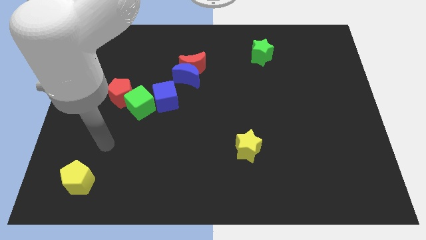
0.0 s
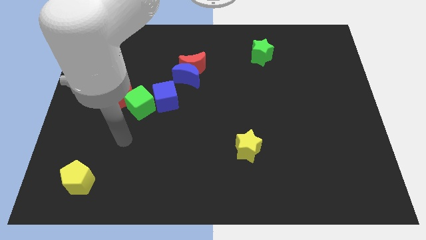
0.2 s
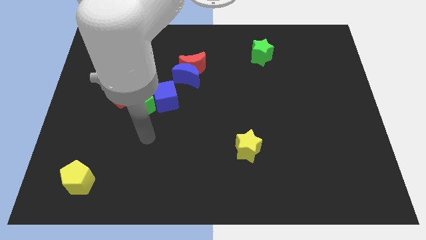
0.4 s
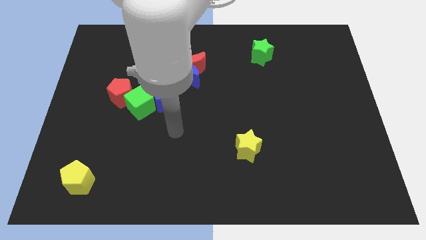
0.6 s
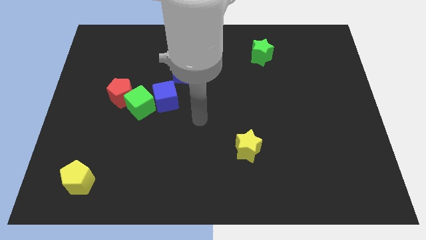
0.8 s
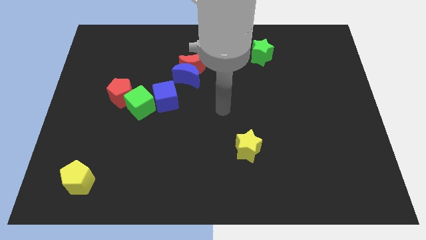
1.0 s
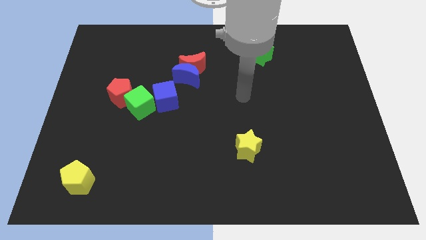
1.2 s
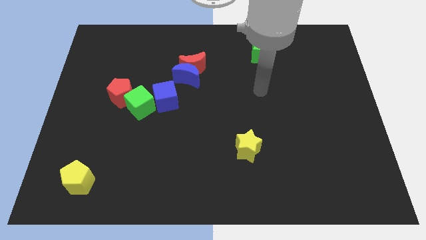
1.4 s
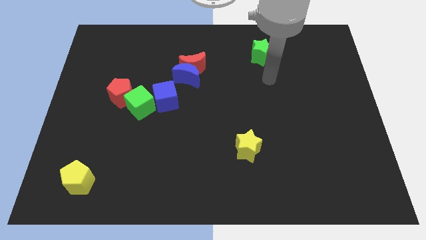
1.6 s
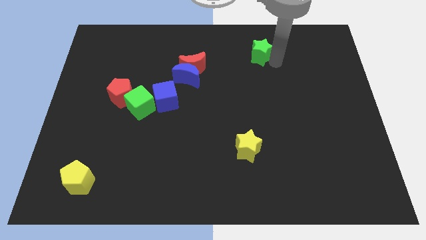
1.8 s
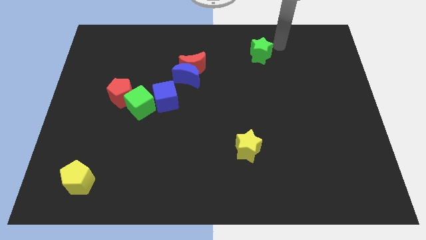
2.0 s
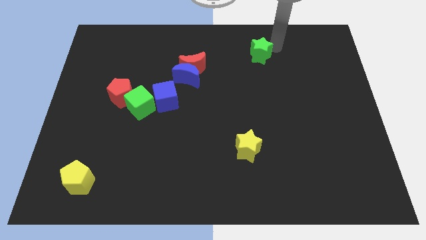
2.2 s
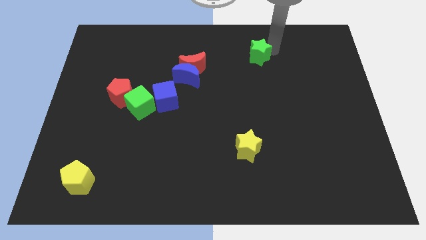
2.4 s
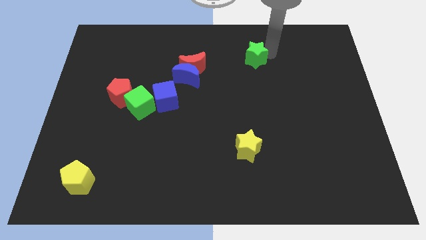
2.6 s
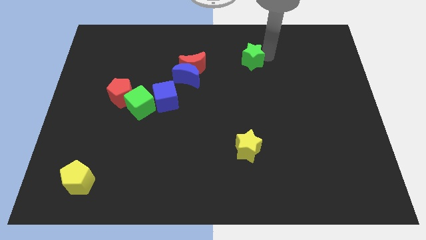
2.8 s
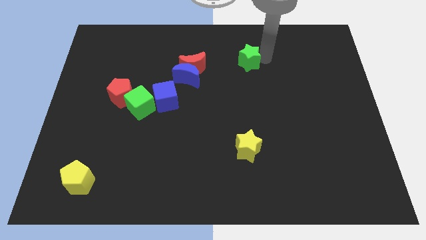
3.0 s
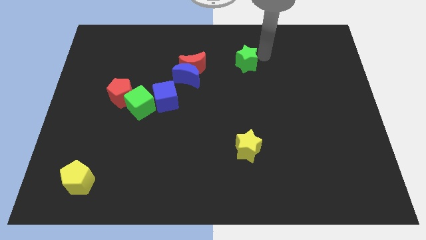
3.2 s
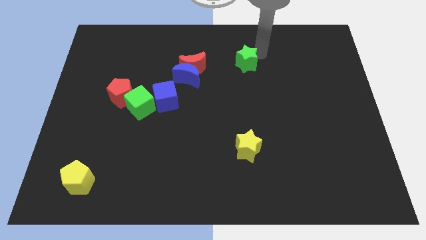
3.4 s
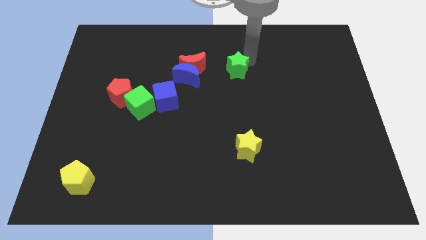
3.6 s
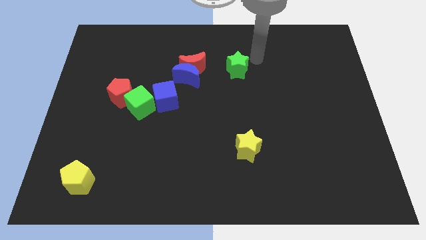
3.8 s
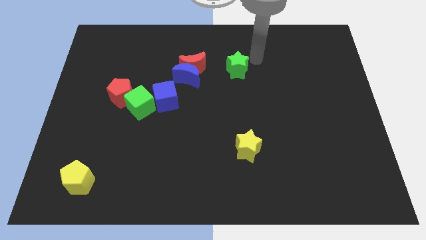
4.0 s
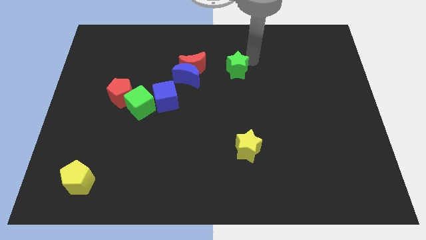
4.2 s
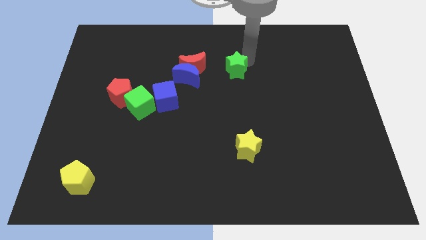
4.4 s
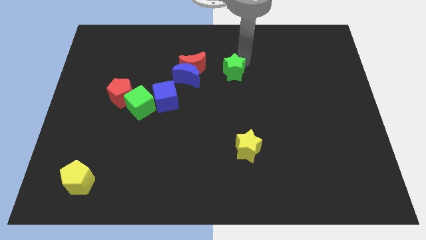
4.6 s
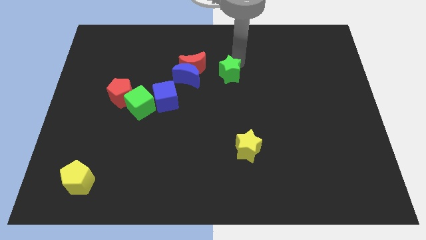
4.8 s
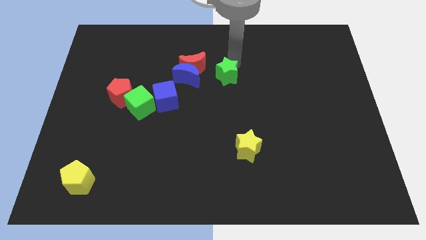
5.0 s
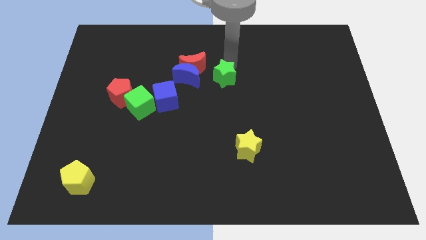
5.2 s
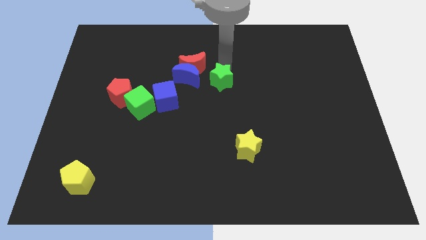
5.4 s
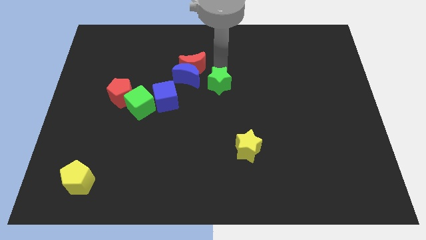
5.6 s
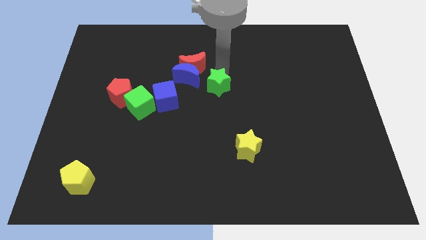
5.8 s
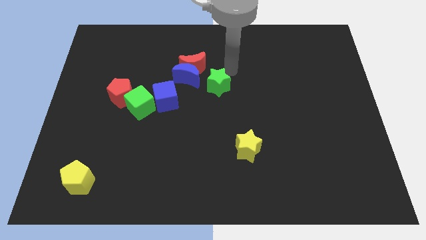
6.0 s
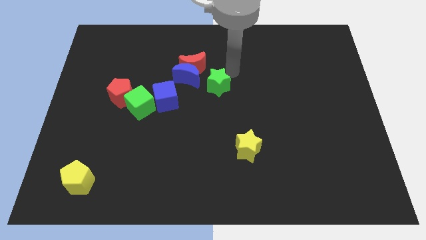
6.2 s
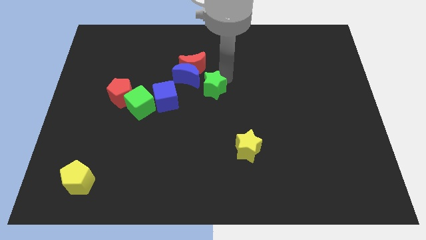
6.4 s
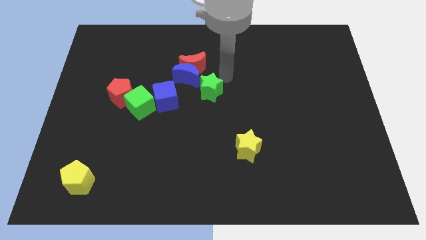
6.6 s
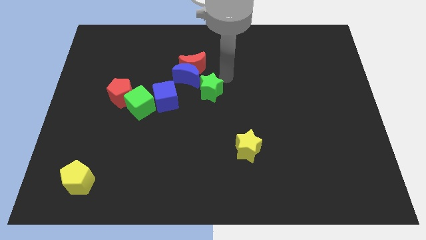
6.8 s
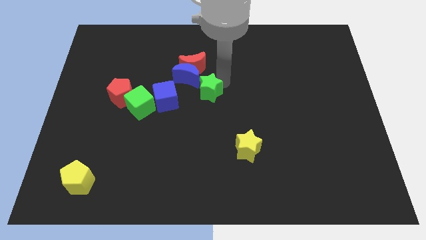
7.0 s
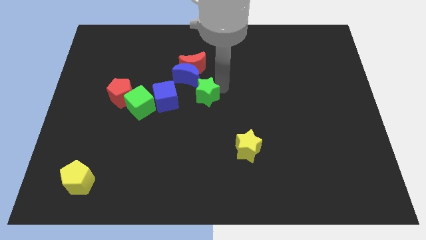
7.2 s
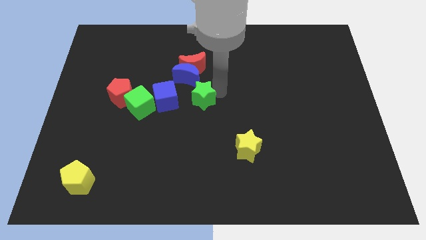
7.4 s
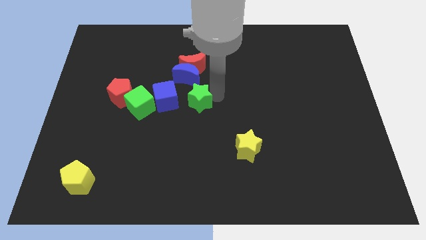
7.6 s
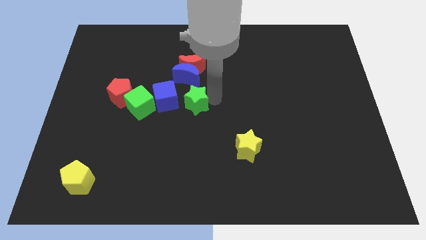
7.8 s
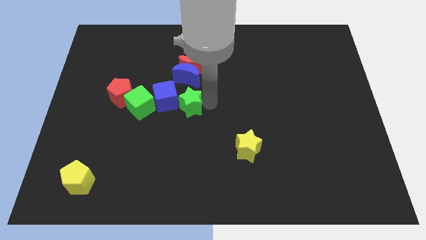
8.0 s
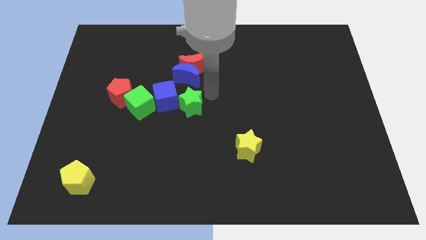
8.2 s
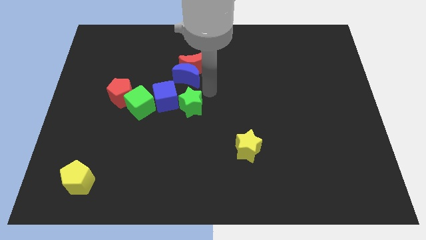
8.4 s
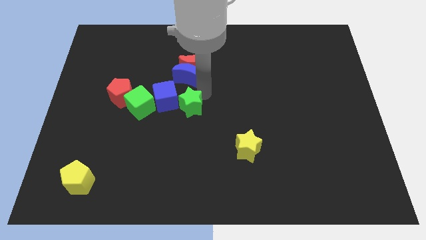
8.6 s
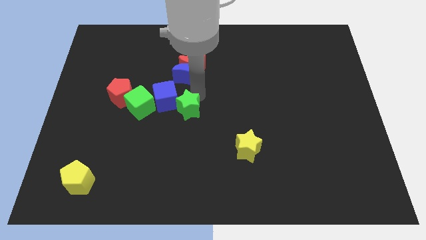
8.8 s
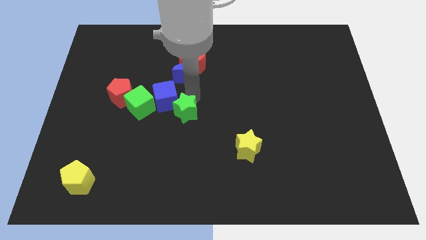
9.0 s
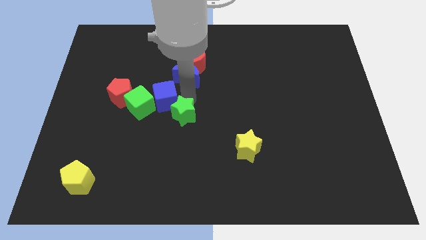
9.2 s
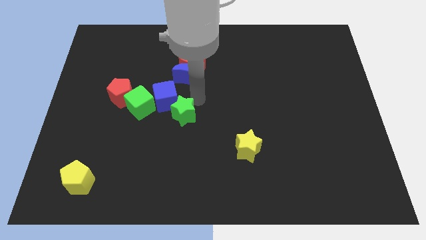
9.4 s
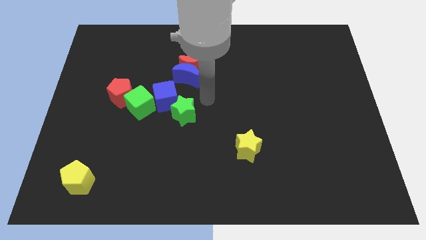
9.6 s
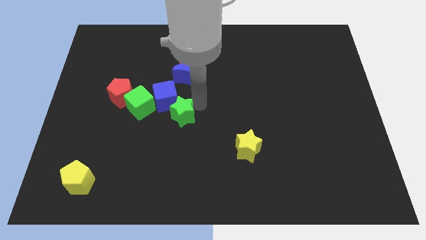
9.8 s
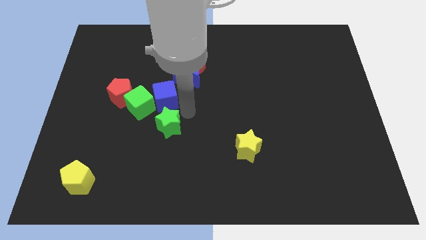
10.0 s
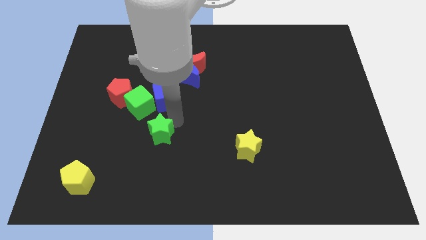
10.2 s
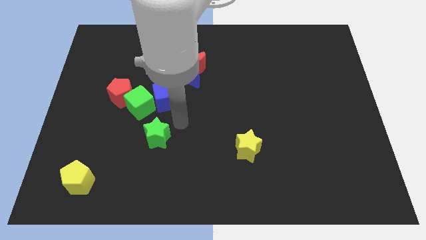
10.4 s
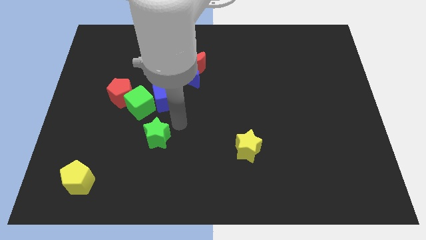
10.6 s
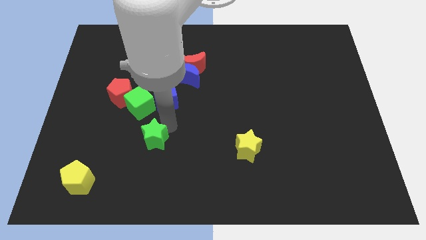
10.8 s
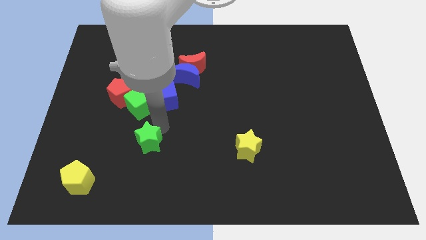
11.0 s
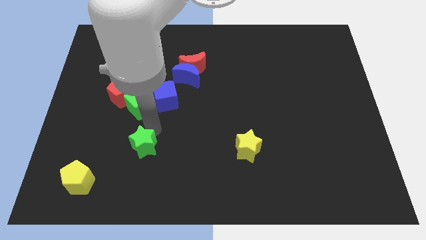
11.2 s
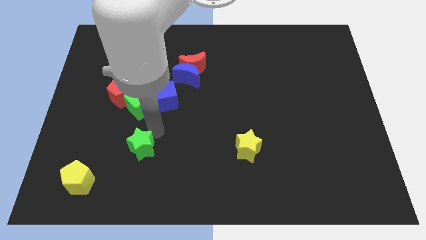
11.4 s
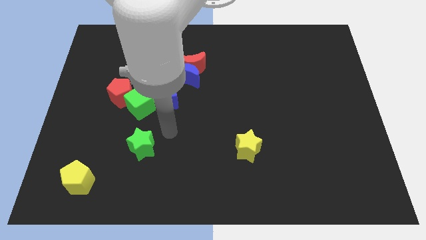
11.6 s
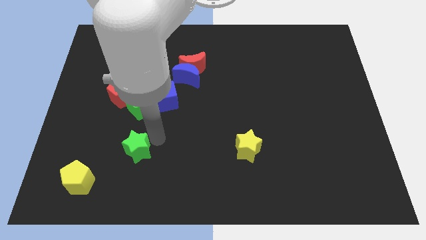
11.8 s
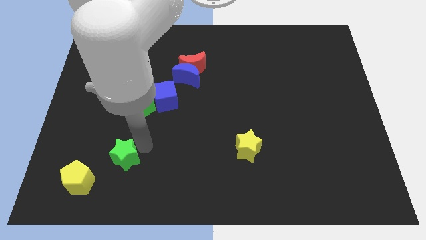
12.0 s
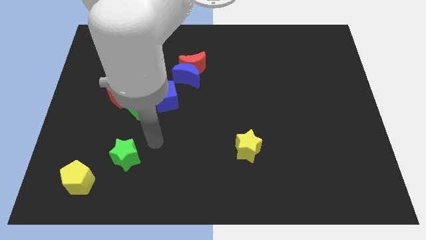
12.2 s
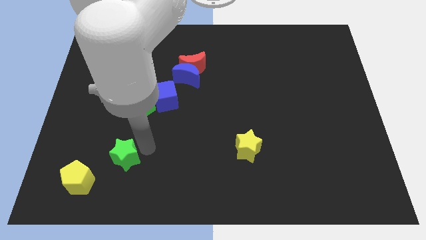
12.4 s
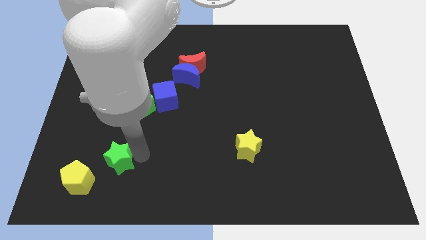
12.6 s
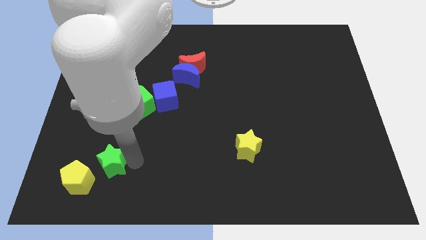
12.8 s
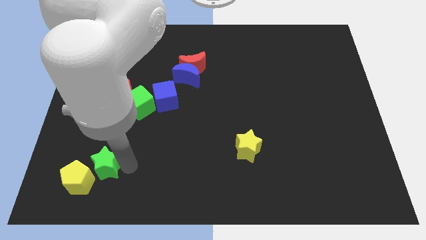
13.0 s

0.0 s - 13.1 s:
put the green star to the yellow pentagon
